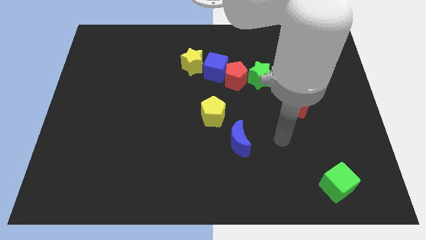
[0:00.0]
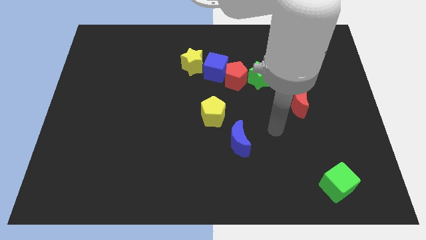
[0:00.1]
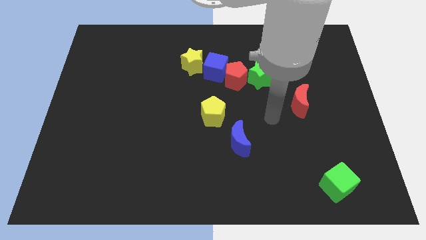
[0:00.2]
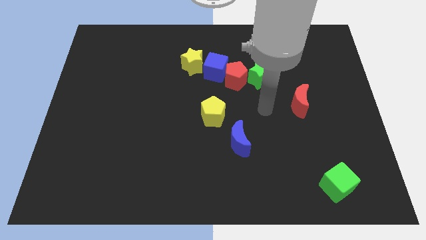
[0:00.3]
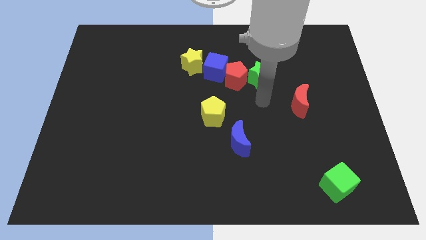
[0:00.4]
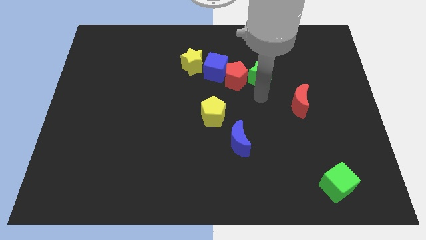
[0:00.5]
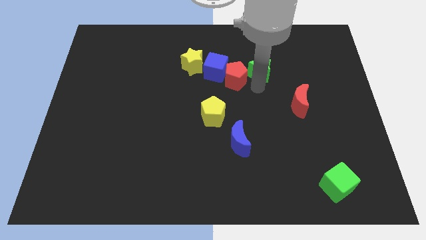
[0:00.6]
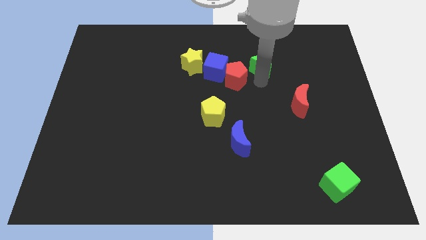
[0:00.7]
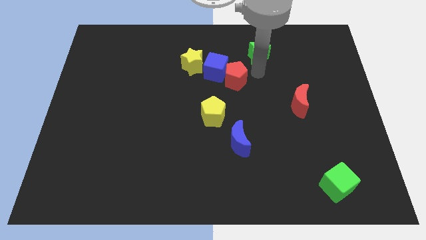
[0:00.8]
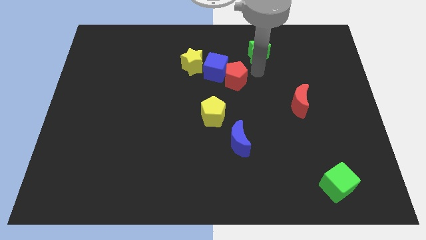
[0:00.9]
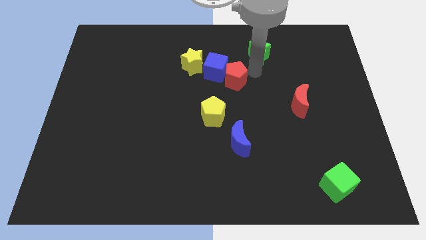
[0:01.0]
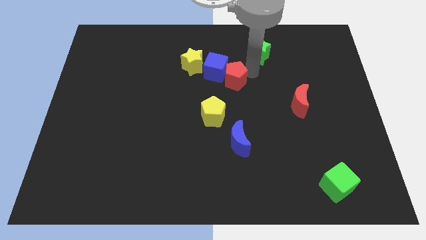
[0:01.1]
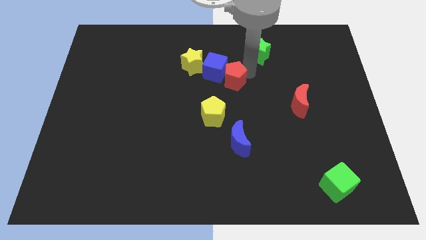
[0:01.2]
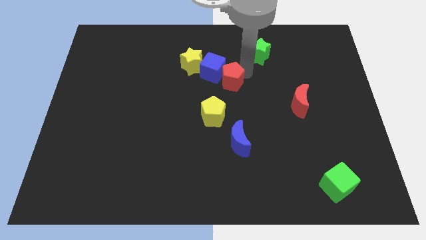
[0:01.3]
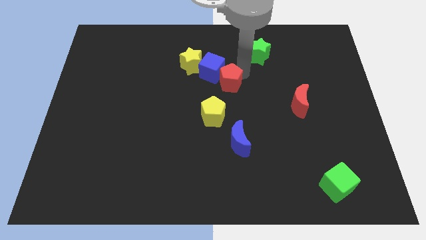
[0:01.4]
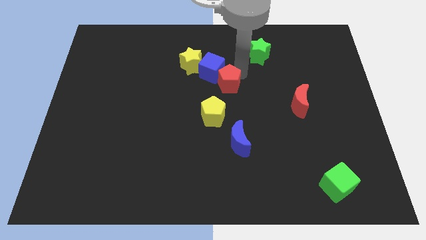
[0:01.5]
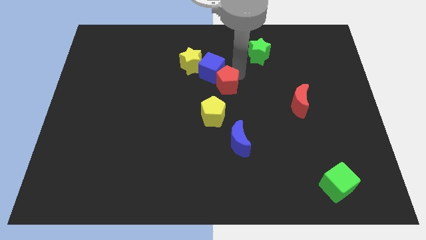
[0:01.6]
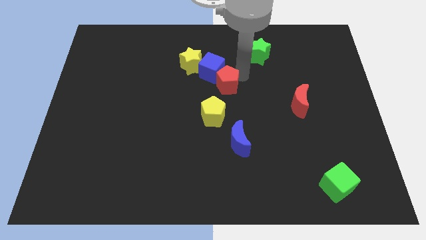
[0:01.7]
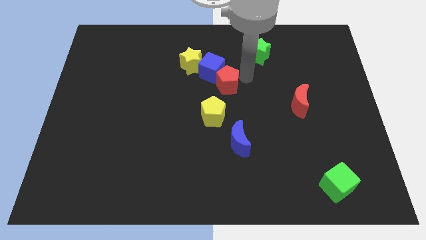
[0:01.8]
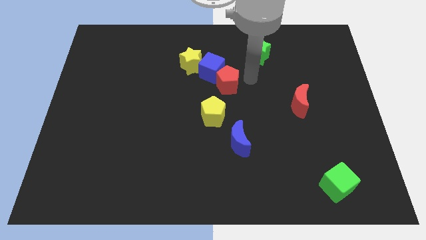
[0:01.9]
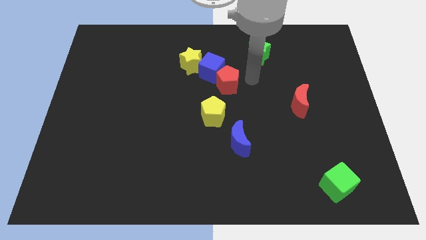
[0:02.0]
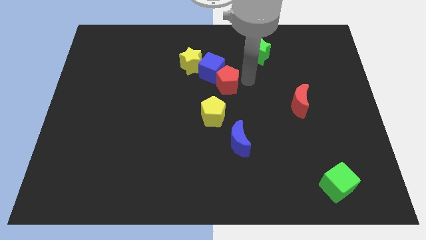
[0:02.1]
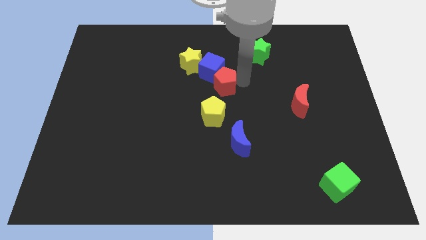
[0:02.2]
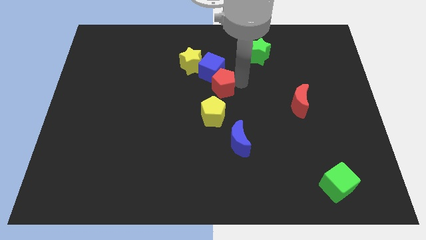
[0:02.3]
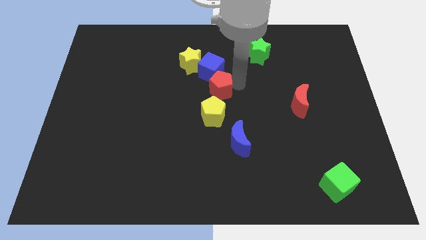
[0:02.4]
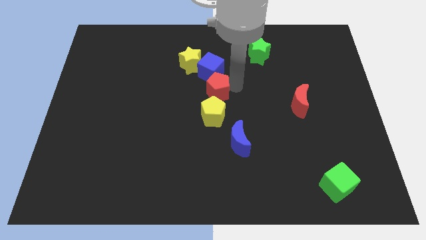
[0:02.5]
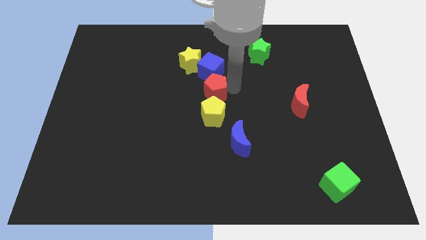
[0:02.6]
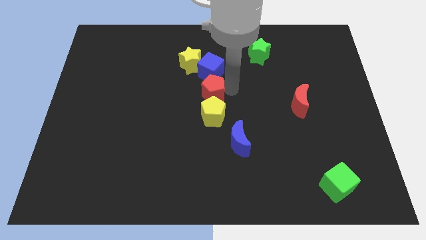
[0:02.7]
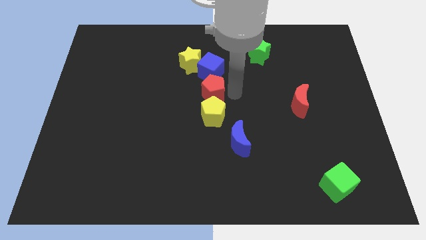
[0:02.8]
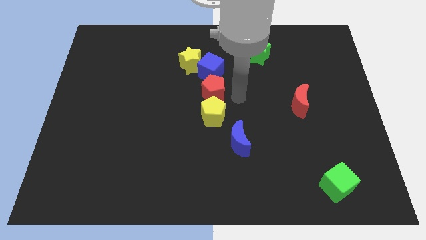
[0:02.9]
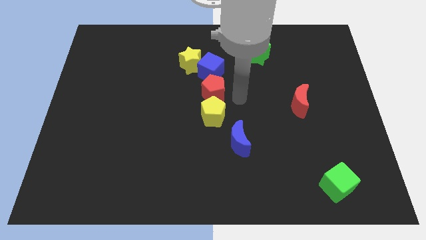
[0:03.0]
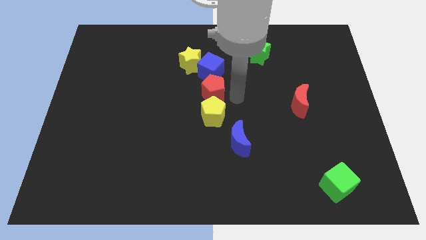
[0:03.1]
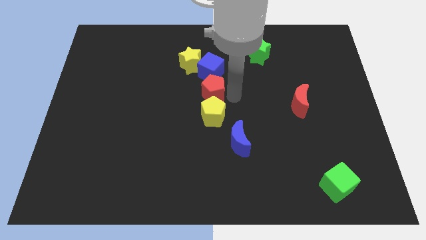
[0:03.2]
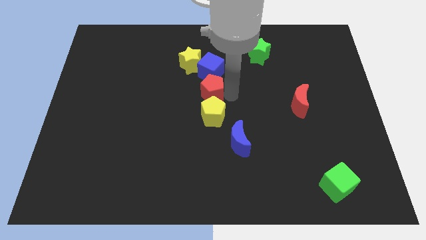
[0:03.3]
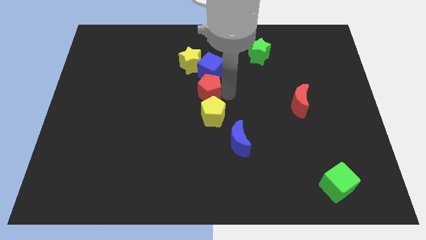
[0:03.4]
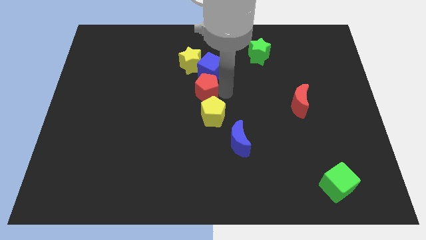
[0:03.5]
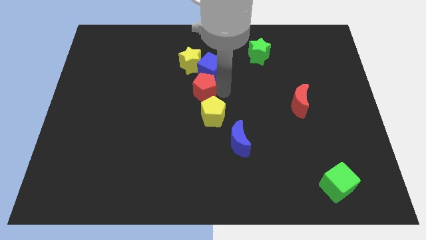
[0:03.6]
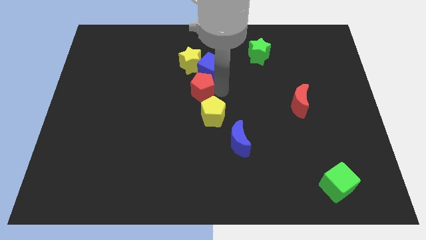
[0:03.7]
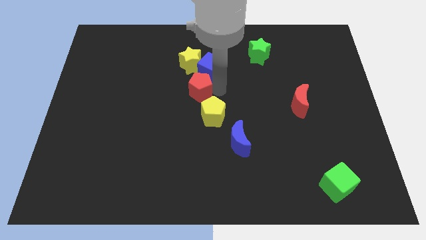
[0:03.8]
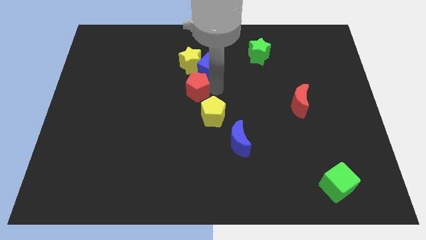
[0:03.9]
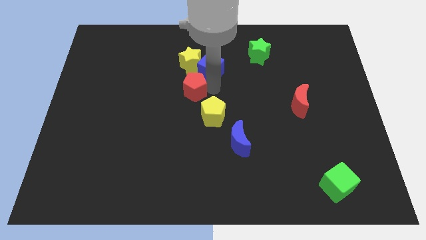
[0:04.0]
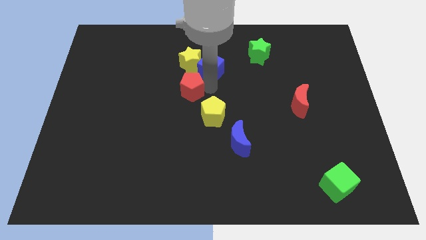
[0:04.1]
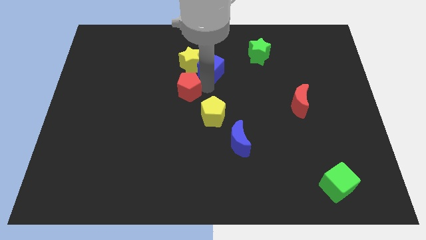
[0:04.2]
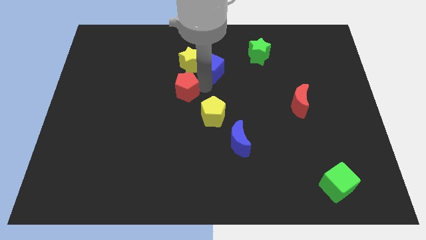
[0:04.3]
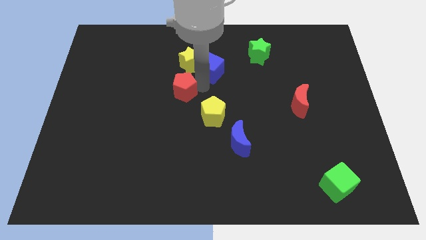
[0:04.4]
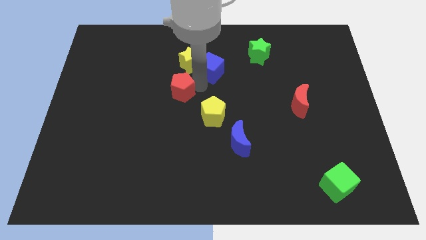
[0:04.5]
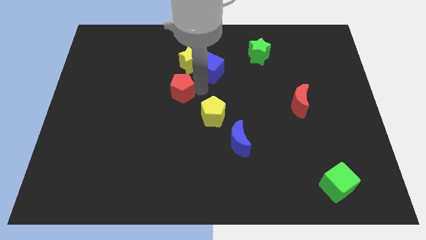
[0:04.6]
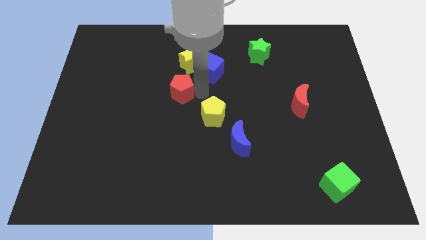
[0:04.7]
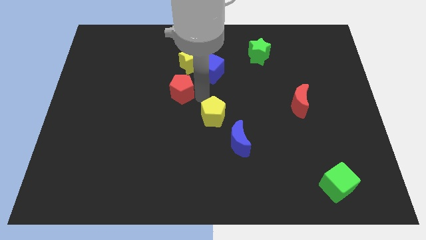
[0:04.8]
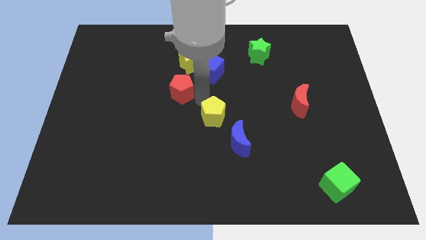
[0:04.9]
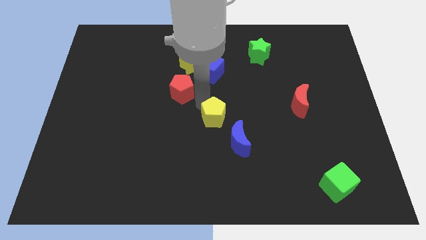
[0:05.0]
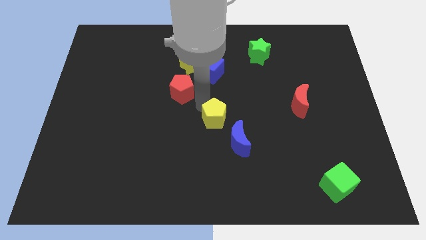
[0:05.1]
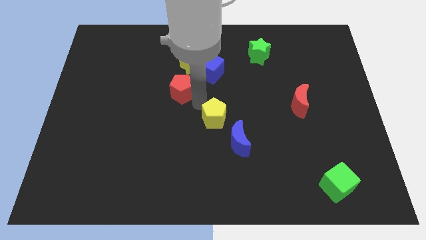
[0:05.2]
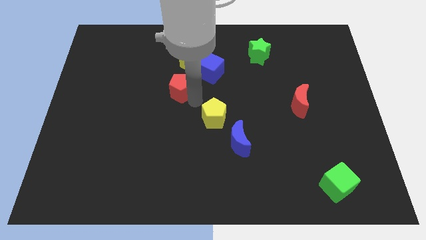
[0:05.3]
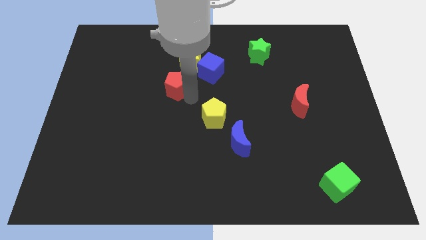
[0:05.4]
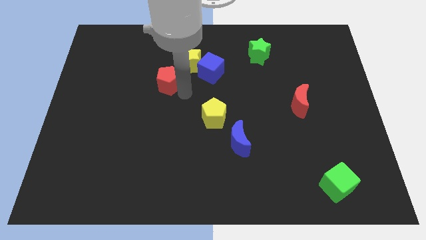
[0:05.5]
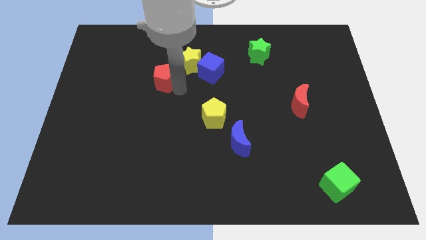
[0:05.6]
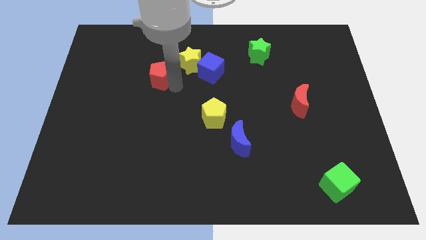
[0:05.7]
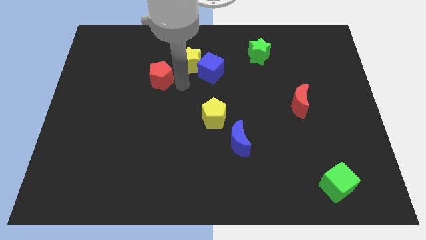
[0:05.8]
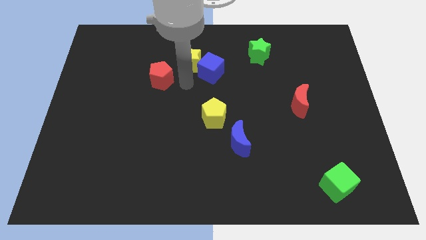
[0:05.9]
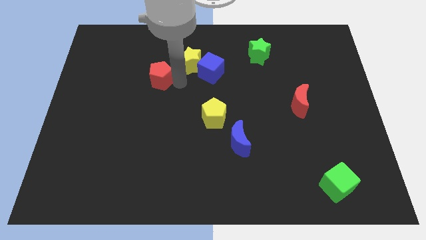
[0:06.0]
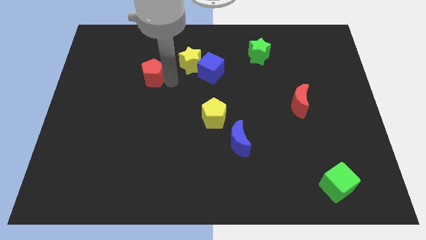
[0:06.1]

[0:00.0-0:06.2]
slide the red pentagon to the left

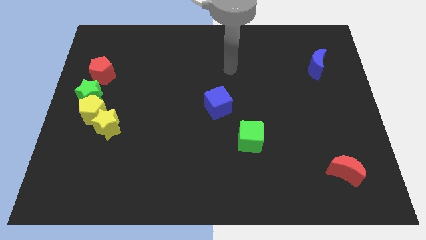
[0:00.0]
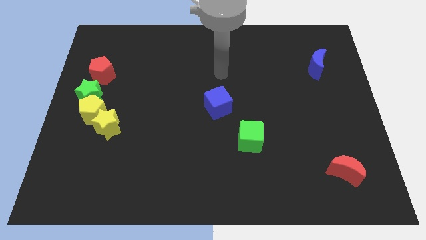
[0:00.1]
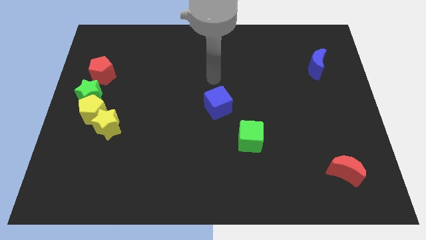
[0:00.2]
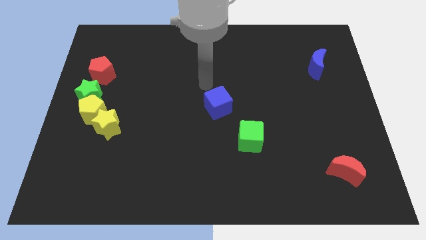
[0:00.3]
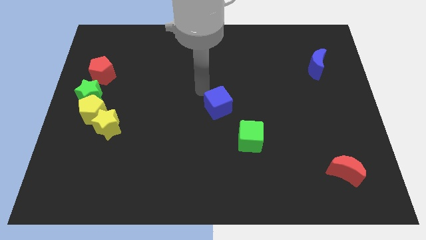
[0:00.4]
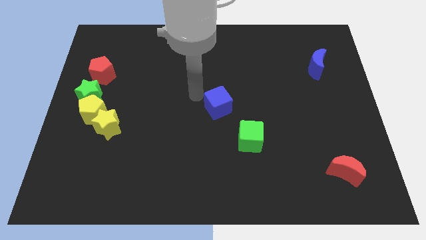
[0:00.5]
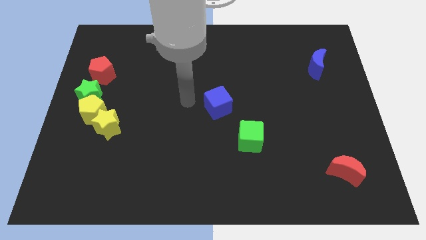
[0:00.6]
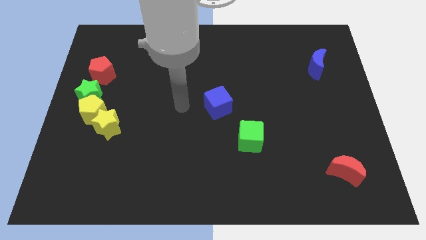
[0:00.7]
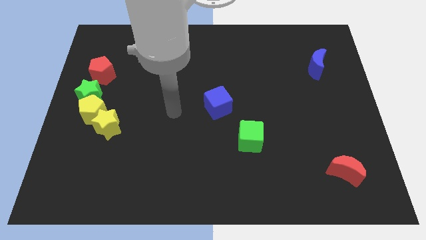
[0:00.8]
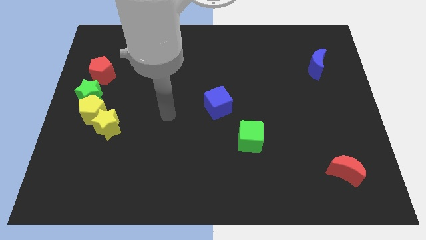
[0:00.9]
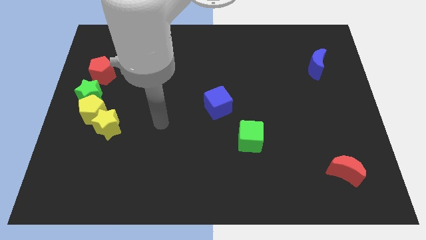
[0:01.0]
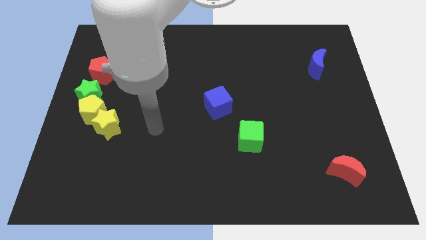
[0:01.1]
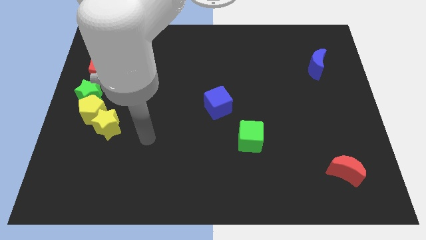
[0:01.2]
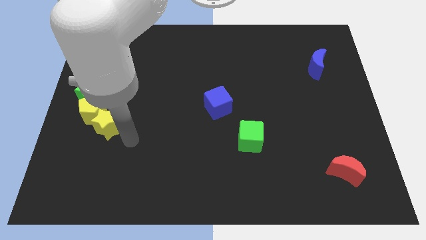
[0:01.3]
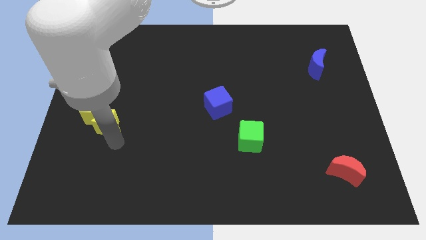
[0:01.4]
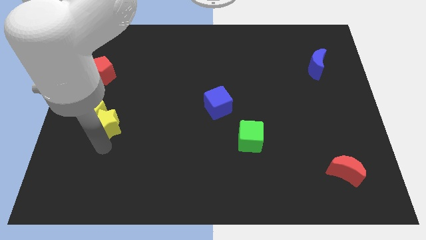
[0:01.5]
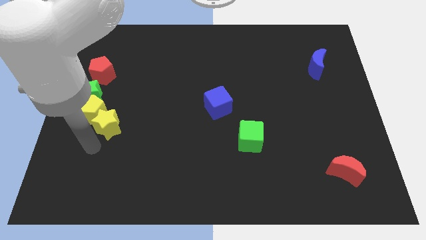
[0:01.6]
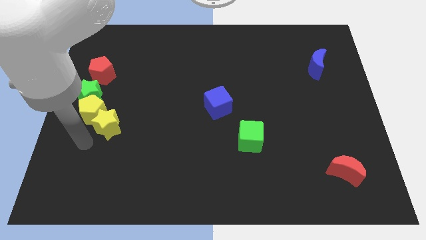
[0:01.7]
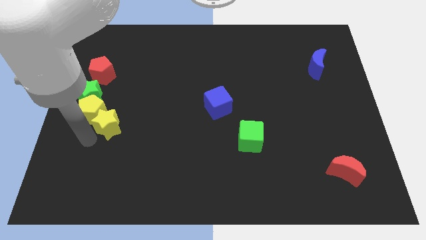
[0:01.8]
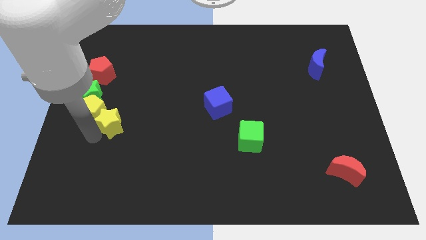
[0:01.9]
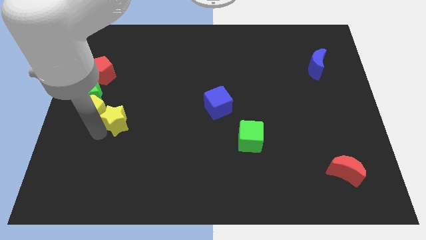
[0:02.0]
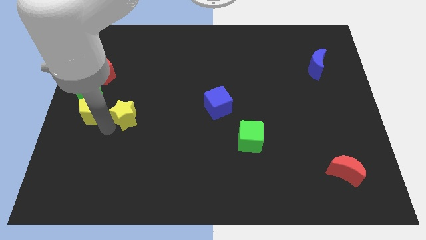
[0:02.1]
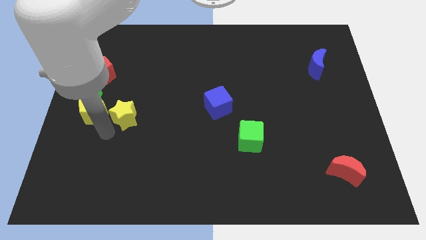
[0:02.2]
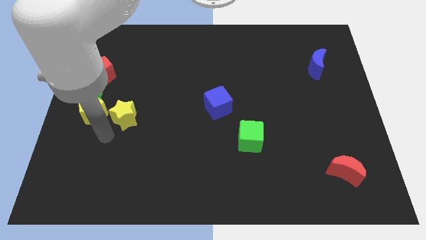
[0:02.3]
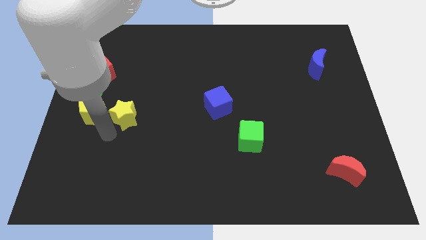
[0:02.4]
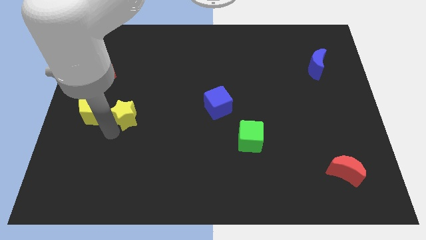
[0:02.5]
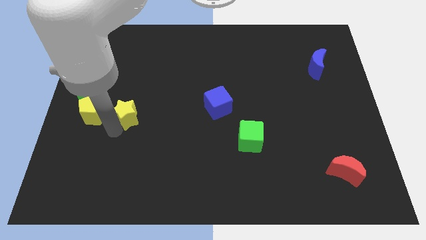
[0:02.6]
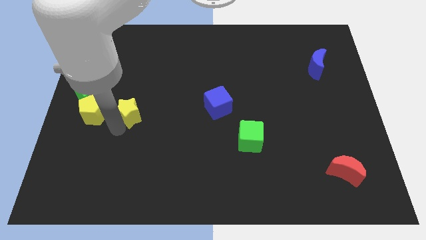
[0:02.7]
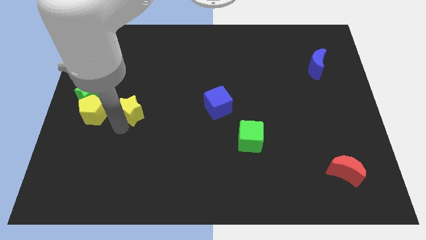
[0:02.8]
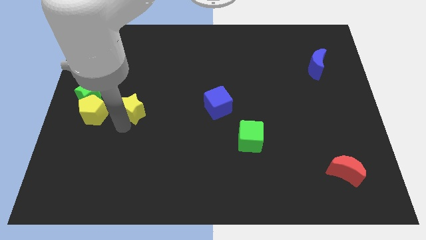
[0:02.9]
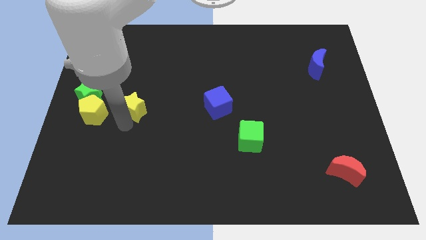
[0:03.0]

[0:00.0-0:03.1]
slightly slide the yellow star diagonally up and to the right
